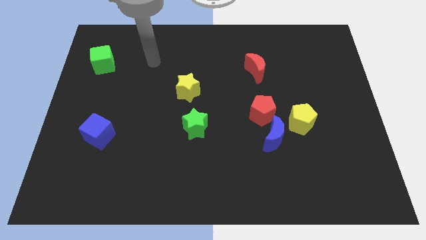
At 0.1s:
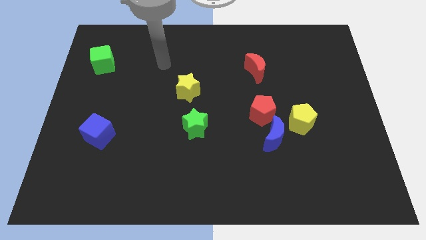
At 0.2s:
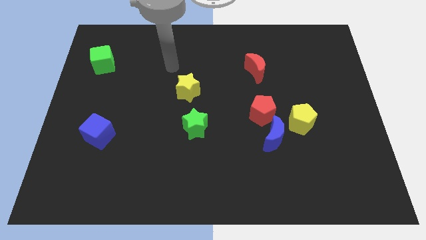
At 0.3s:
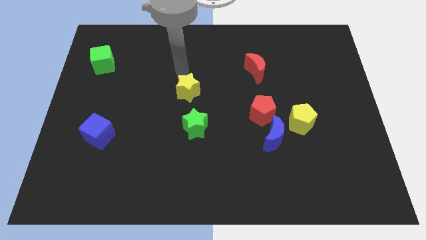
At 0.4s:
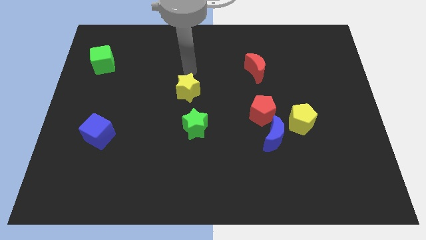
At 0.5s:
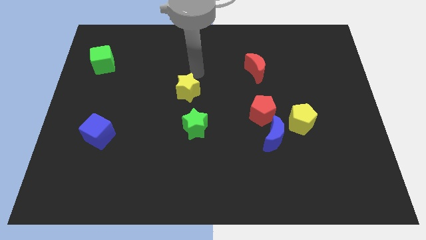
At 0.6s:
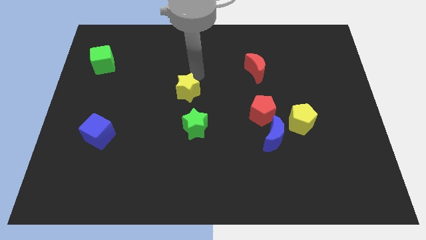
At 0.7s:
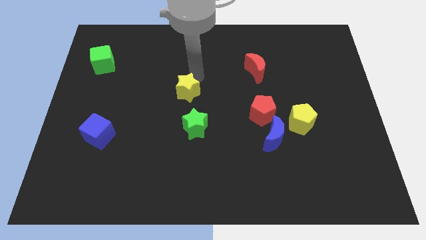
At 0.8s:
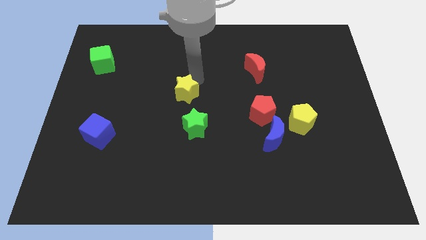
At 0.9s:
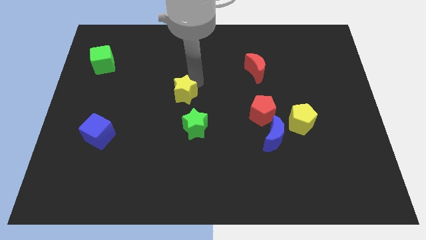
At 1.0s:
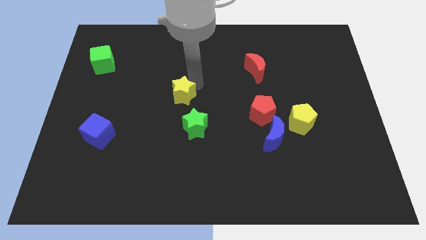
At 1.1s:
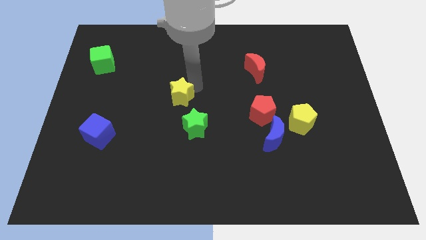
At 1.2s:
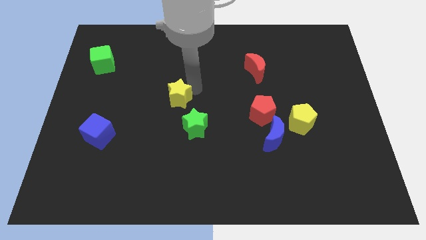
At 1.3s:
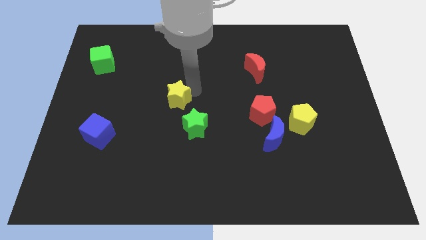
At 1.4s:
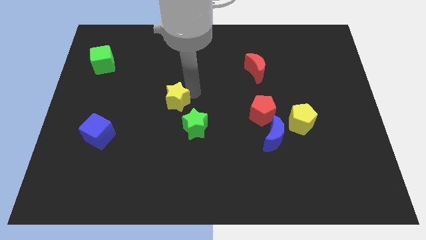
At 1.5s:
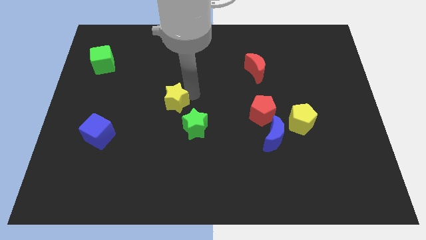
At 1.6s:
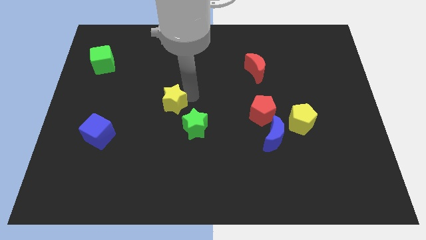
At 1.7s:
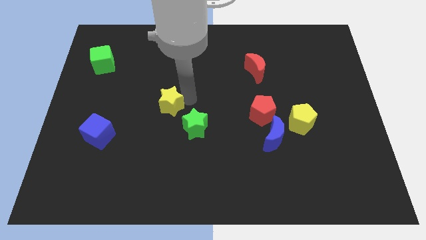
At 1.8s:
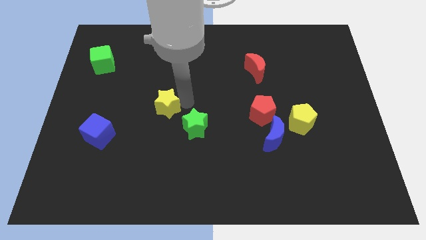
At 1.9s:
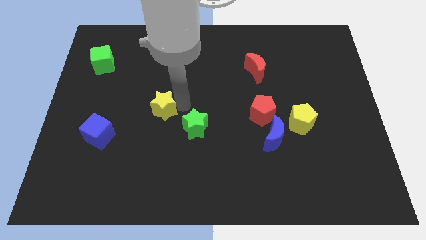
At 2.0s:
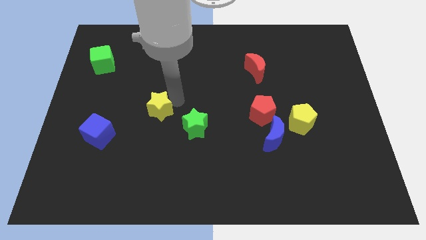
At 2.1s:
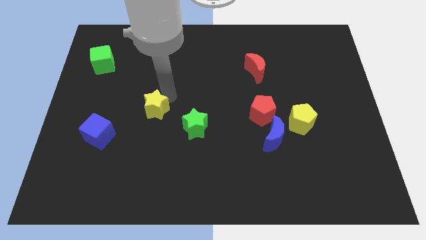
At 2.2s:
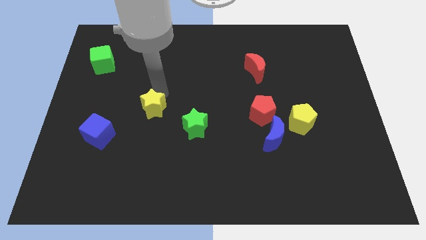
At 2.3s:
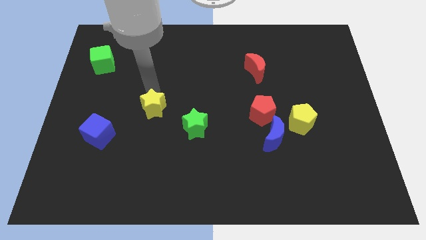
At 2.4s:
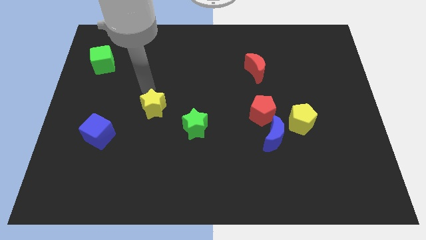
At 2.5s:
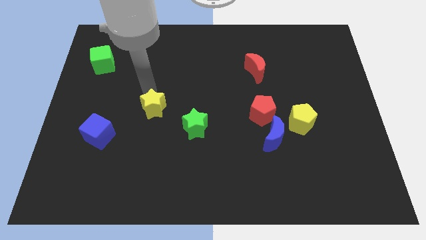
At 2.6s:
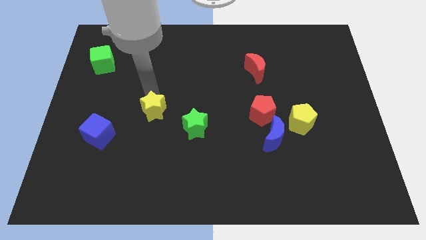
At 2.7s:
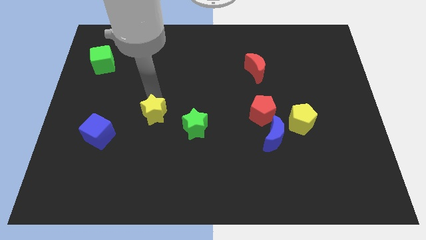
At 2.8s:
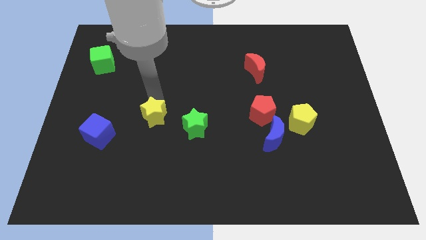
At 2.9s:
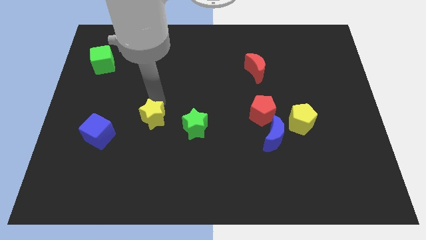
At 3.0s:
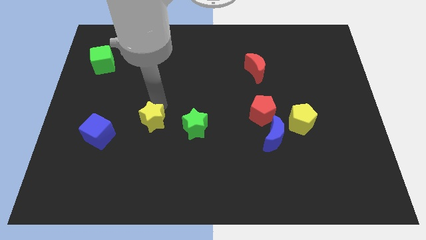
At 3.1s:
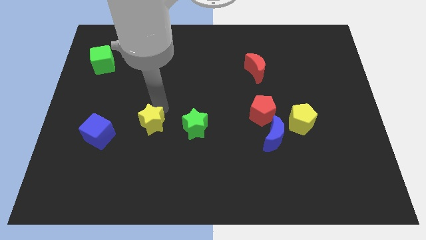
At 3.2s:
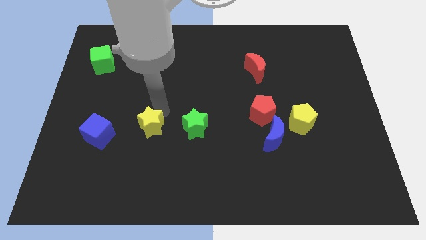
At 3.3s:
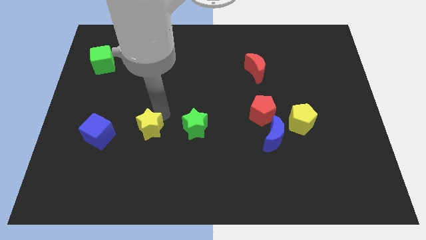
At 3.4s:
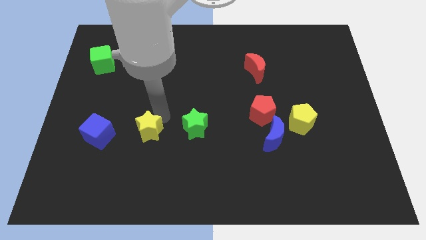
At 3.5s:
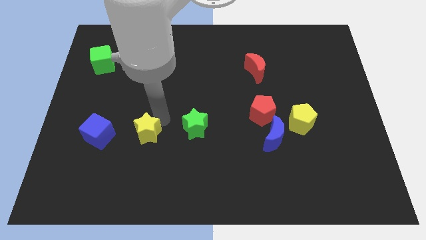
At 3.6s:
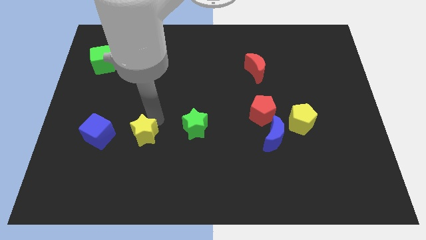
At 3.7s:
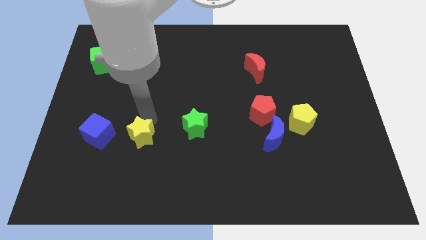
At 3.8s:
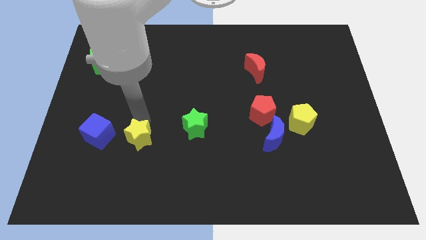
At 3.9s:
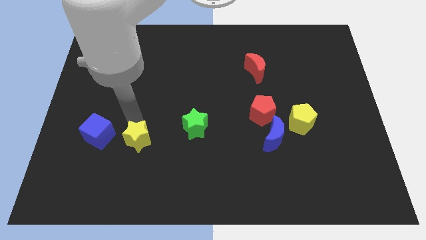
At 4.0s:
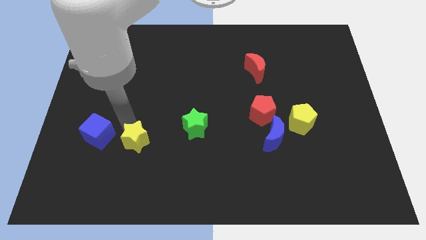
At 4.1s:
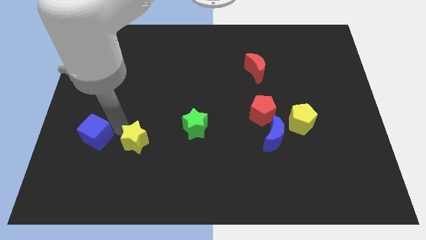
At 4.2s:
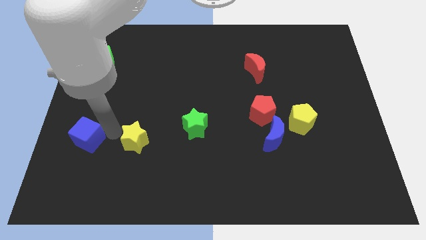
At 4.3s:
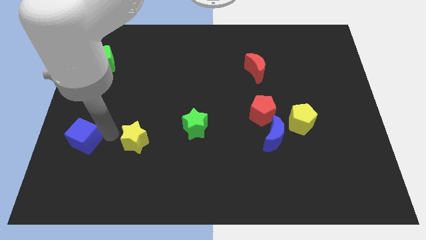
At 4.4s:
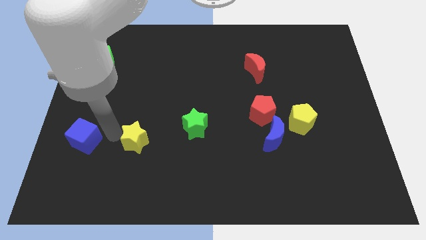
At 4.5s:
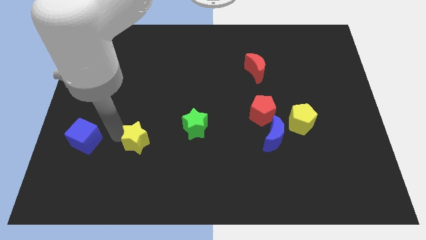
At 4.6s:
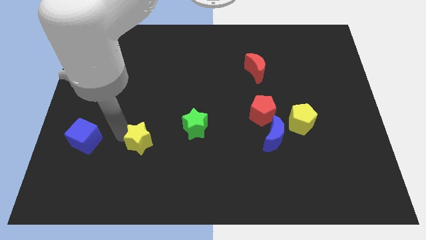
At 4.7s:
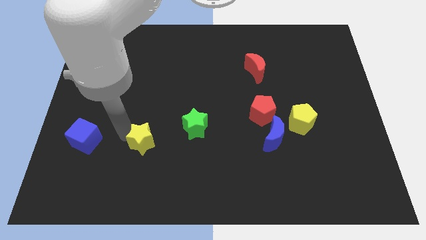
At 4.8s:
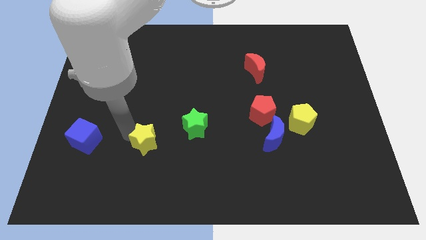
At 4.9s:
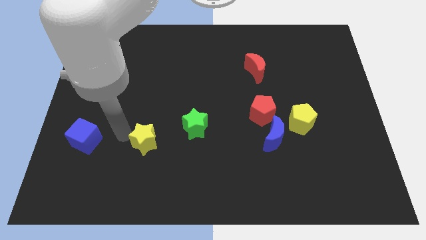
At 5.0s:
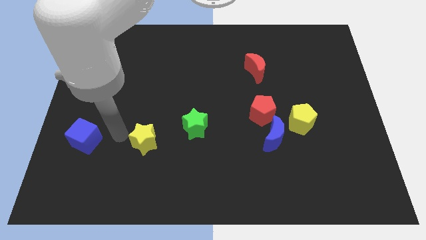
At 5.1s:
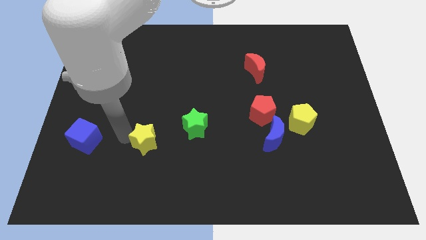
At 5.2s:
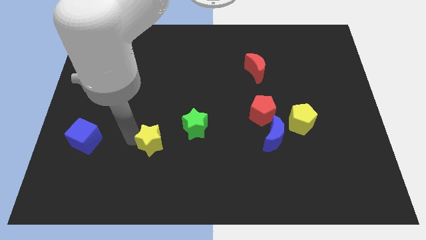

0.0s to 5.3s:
slide the yellow star to the bottom left side of the green star

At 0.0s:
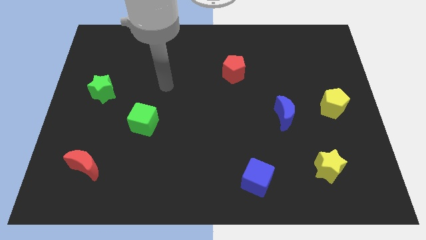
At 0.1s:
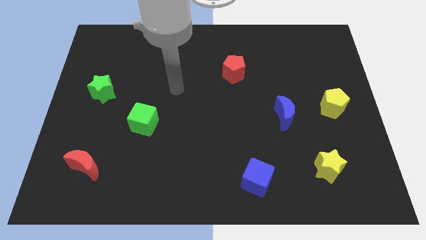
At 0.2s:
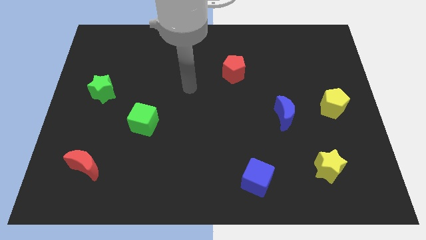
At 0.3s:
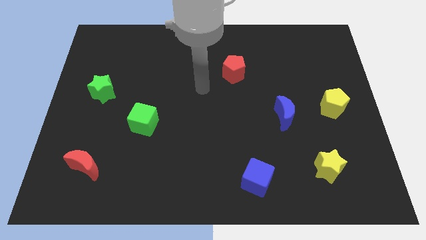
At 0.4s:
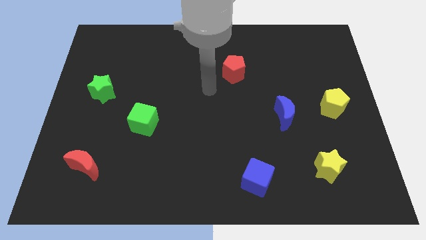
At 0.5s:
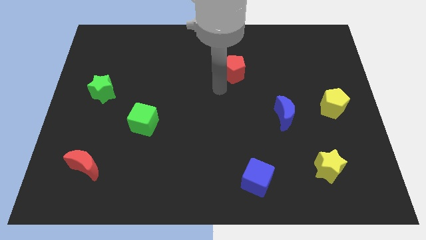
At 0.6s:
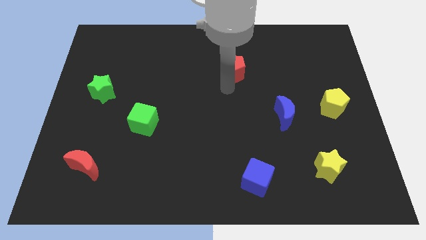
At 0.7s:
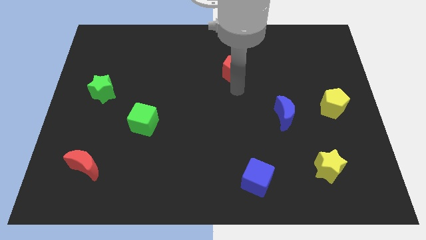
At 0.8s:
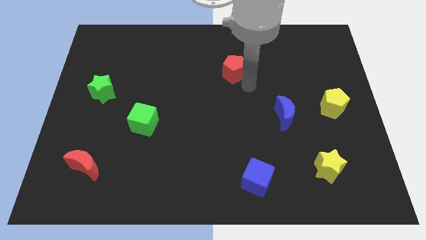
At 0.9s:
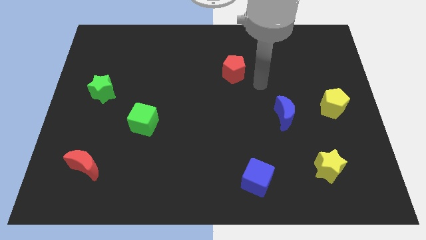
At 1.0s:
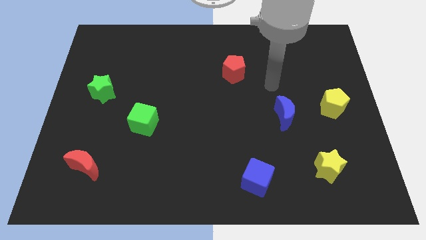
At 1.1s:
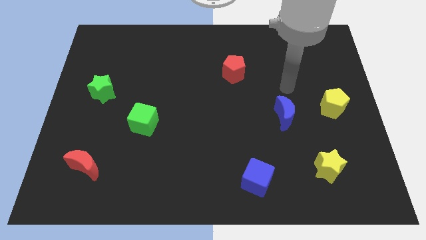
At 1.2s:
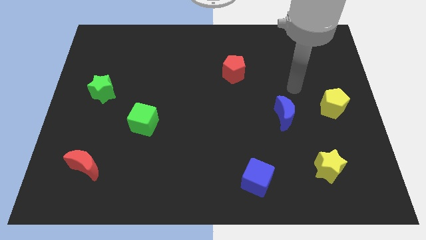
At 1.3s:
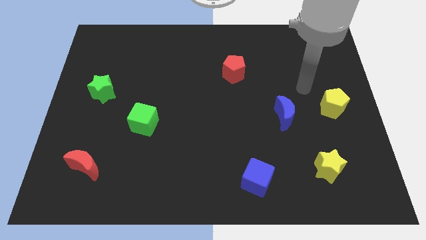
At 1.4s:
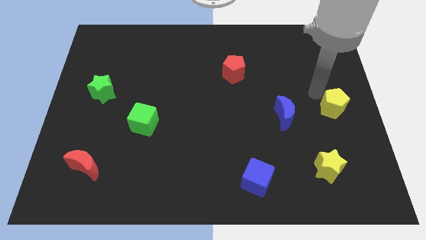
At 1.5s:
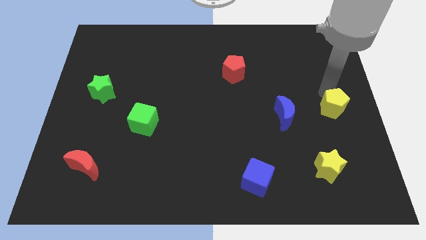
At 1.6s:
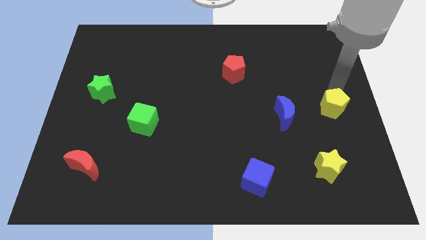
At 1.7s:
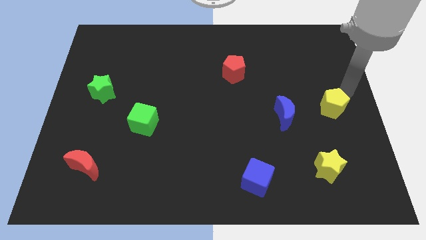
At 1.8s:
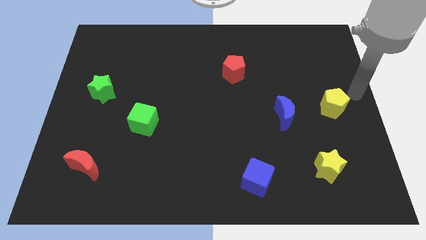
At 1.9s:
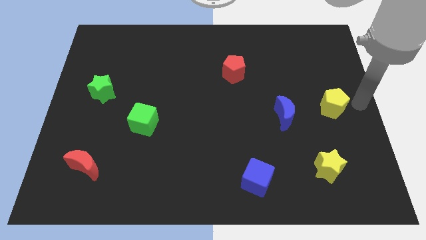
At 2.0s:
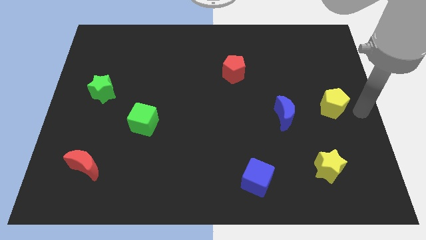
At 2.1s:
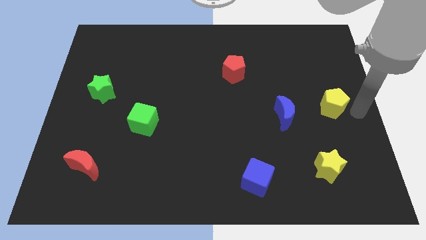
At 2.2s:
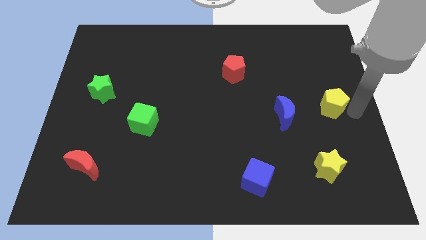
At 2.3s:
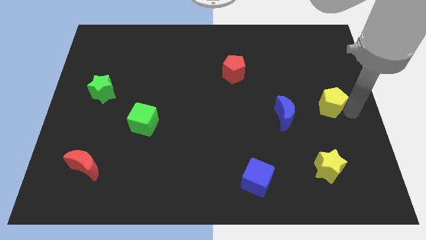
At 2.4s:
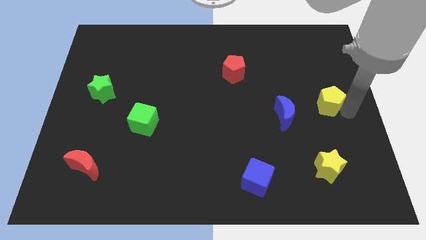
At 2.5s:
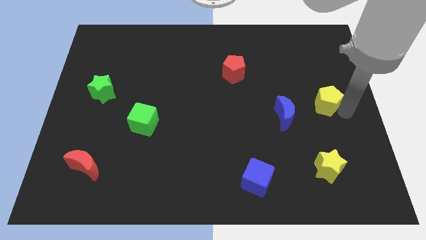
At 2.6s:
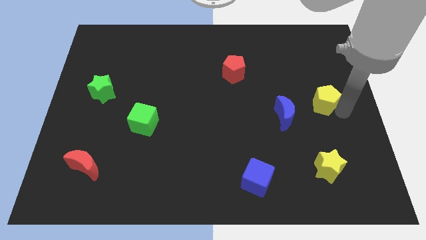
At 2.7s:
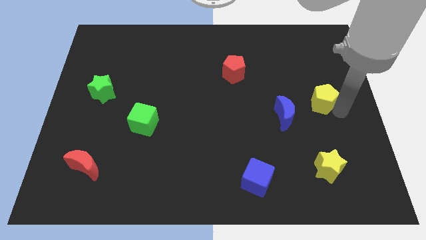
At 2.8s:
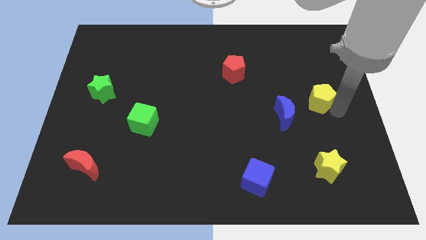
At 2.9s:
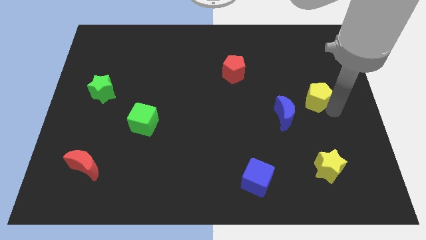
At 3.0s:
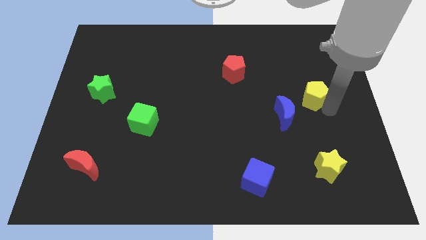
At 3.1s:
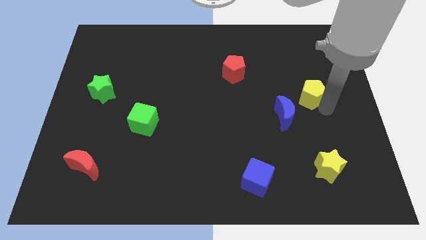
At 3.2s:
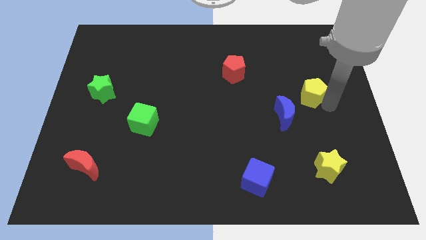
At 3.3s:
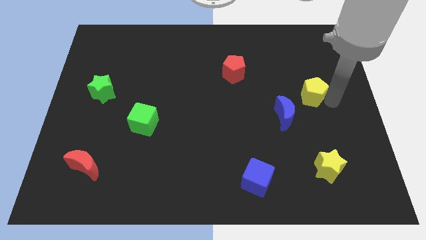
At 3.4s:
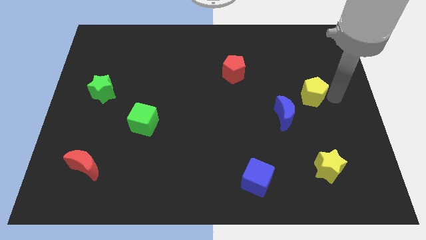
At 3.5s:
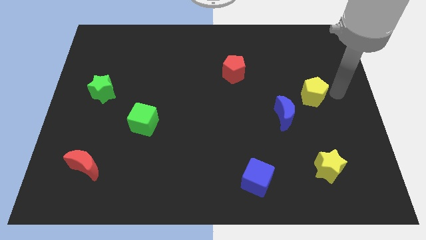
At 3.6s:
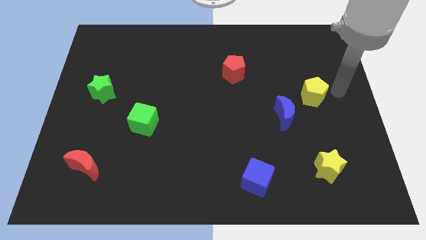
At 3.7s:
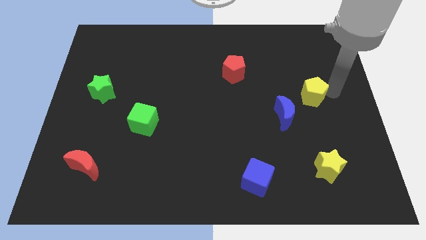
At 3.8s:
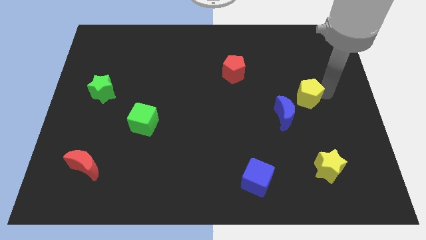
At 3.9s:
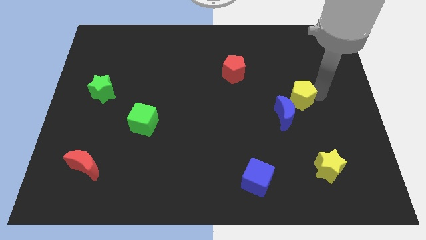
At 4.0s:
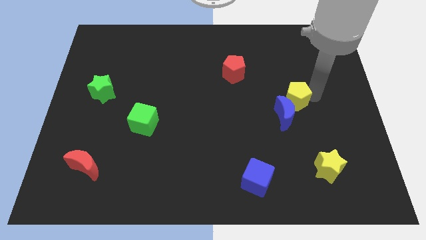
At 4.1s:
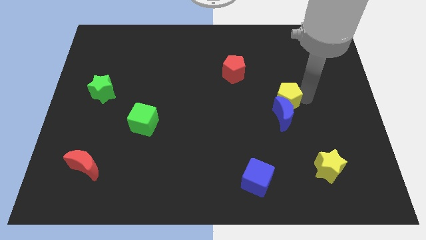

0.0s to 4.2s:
move the yellow pentagon diagonally up and to the left of the blue moon
